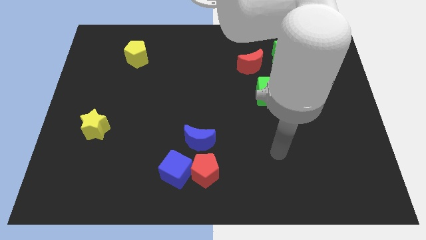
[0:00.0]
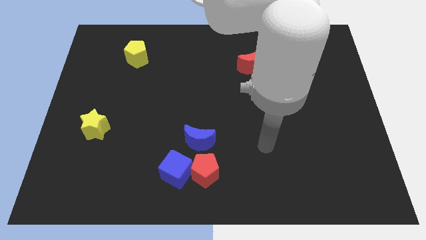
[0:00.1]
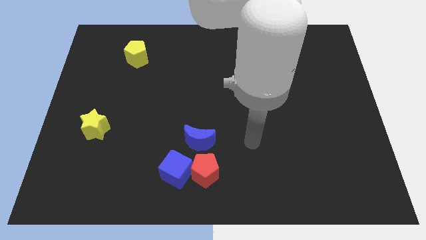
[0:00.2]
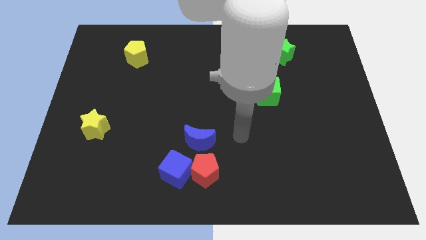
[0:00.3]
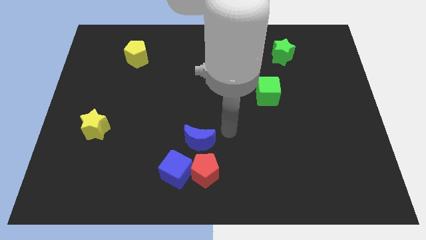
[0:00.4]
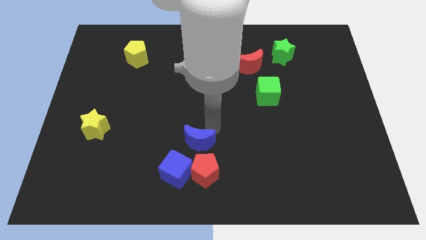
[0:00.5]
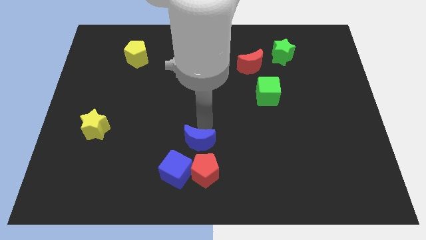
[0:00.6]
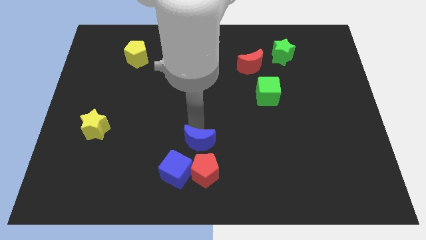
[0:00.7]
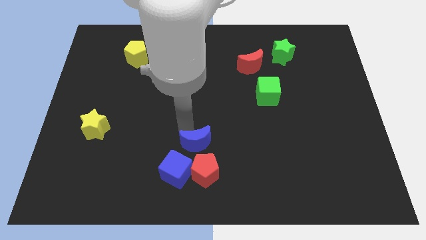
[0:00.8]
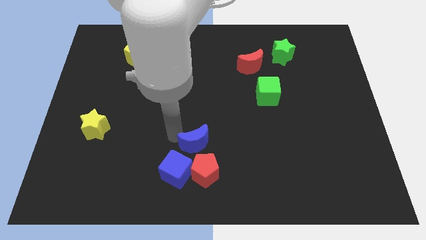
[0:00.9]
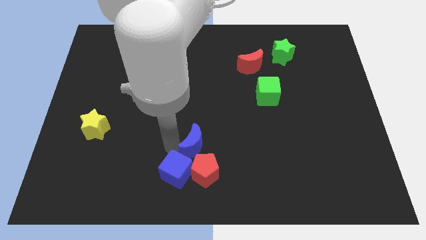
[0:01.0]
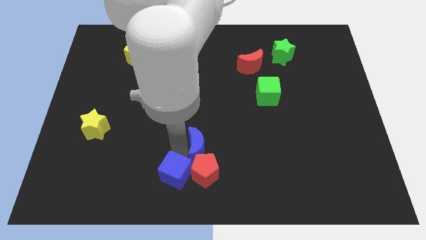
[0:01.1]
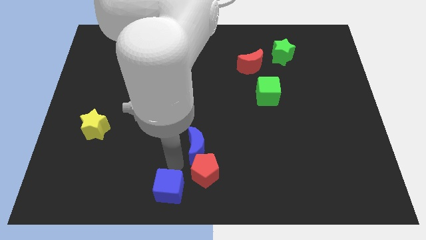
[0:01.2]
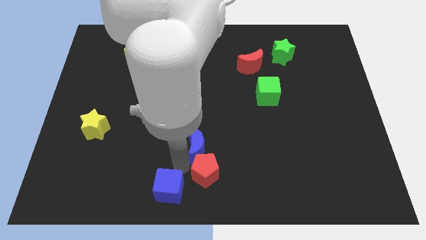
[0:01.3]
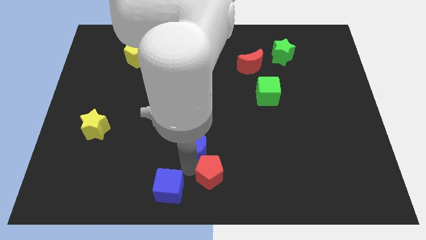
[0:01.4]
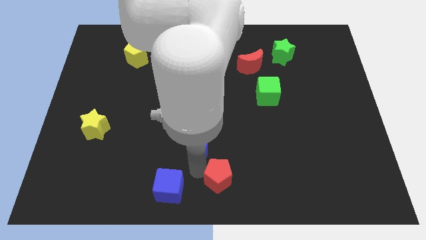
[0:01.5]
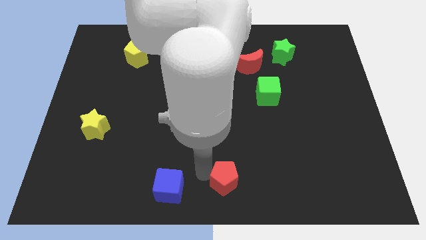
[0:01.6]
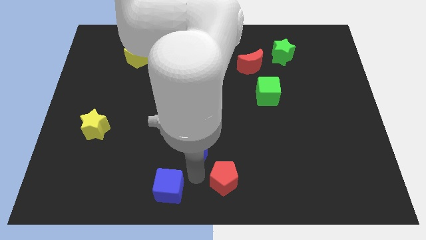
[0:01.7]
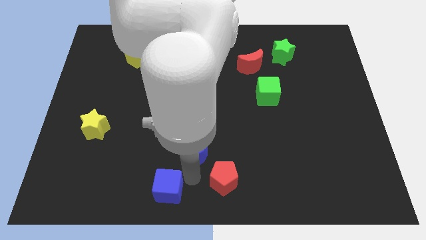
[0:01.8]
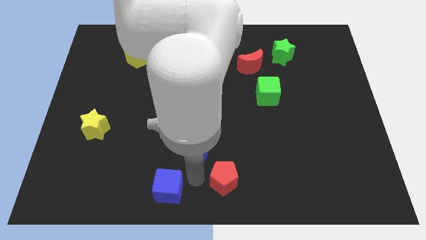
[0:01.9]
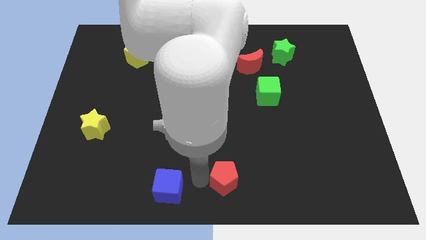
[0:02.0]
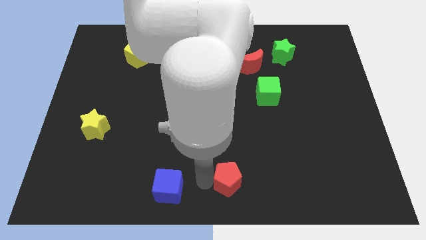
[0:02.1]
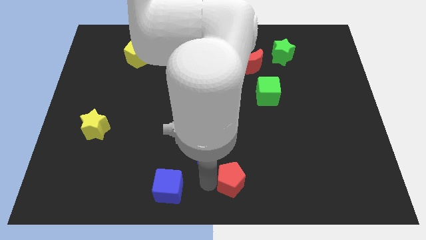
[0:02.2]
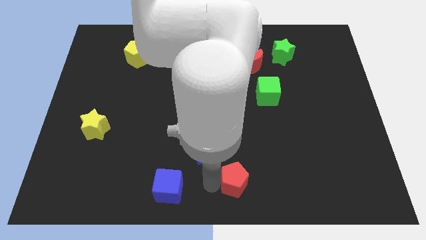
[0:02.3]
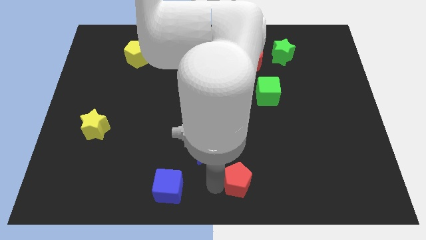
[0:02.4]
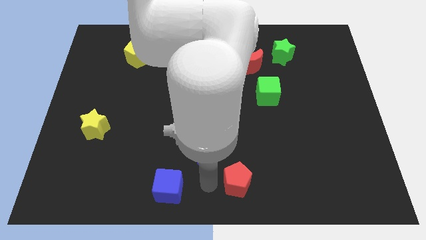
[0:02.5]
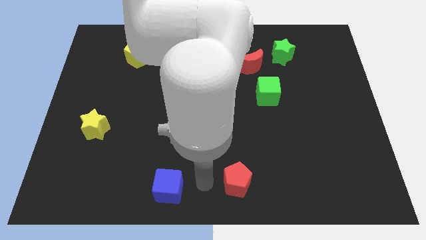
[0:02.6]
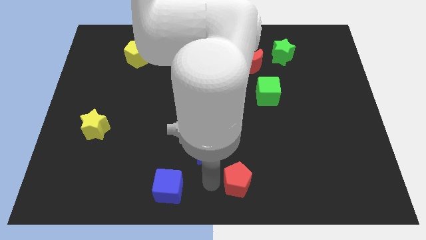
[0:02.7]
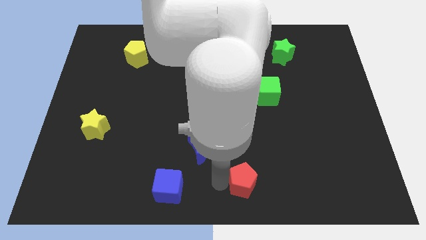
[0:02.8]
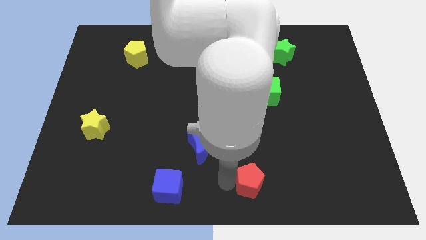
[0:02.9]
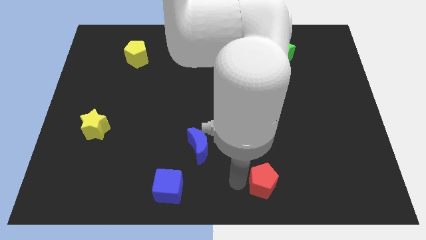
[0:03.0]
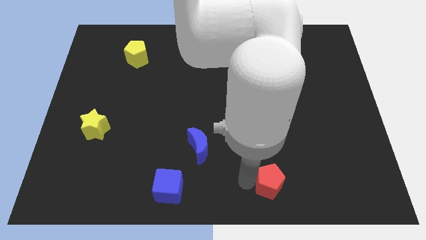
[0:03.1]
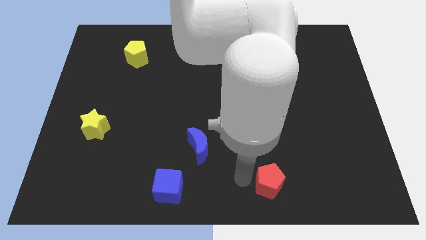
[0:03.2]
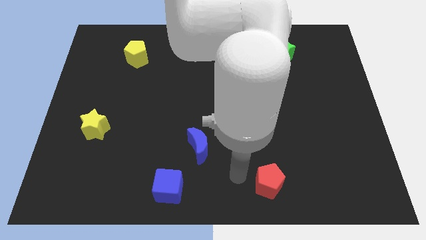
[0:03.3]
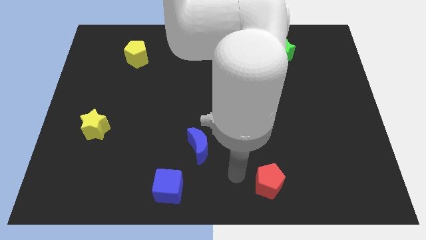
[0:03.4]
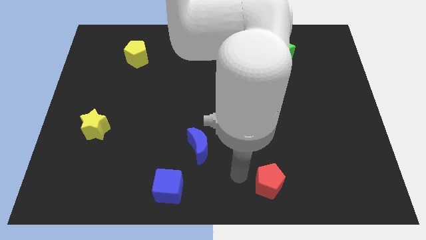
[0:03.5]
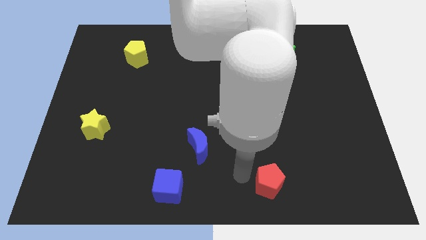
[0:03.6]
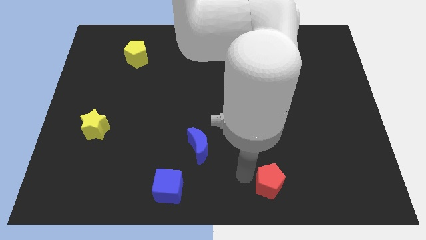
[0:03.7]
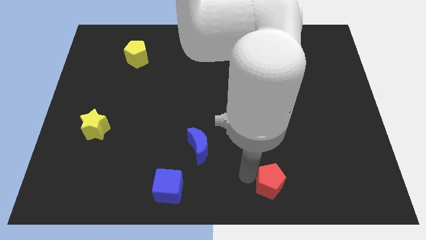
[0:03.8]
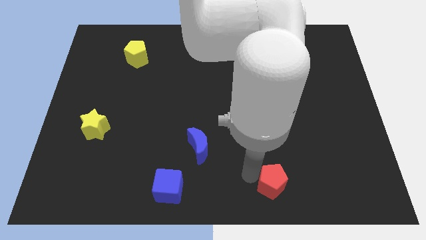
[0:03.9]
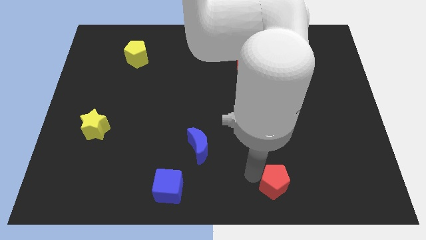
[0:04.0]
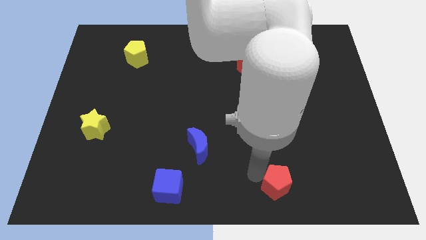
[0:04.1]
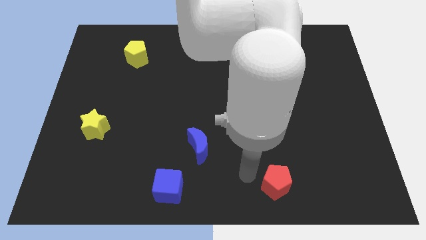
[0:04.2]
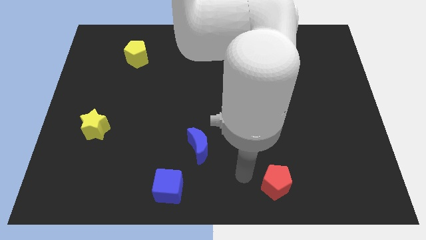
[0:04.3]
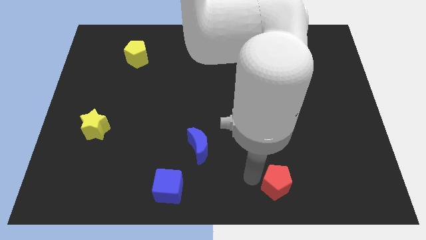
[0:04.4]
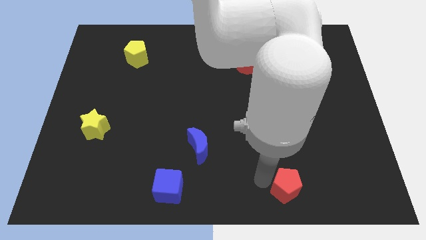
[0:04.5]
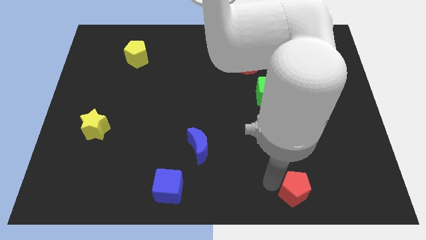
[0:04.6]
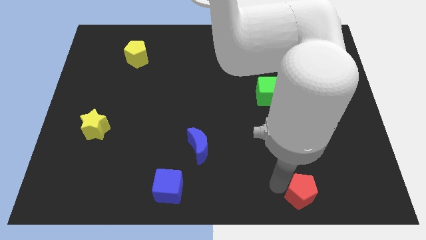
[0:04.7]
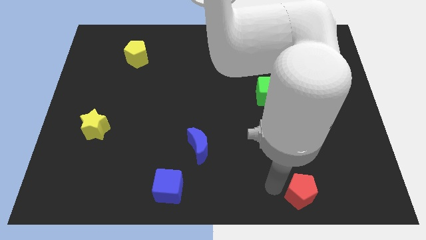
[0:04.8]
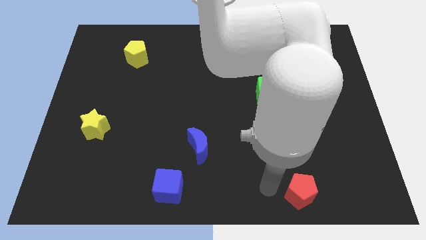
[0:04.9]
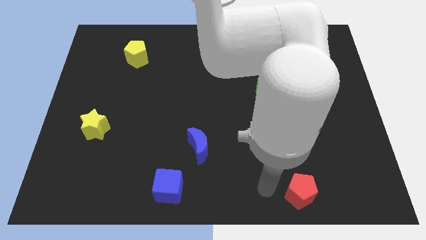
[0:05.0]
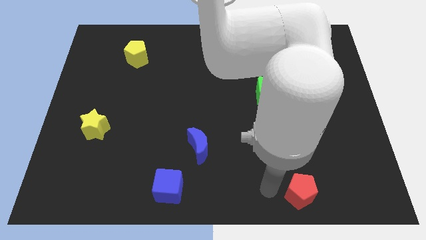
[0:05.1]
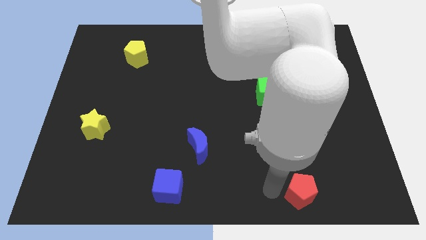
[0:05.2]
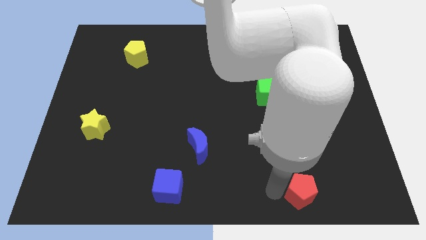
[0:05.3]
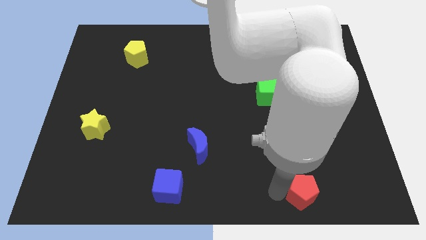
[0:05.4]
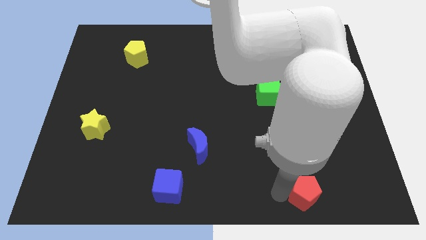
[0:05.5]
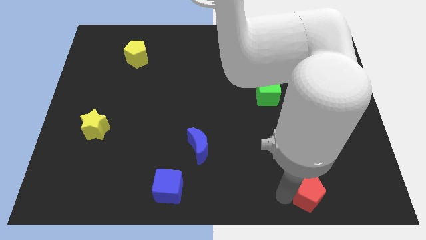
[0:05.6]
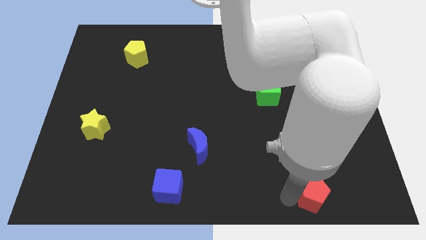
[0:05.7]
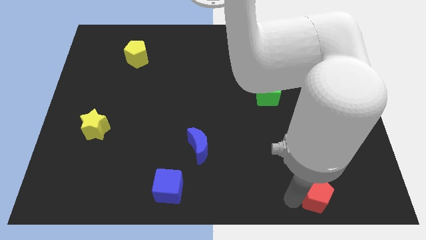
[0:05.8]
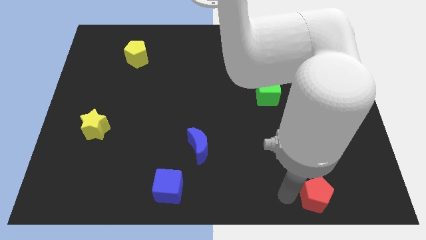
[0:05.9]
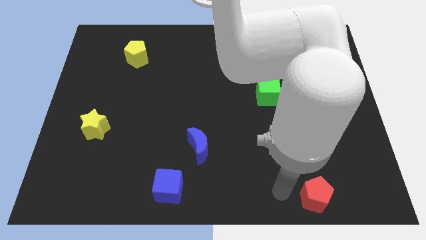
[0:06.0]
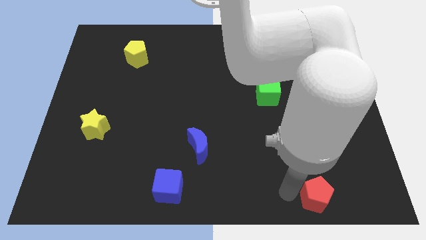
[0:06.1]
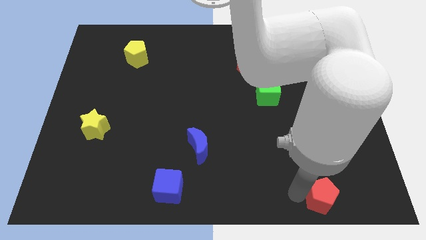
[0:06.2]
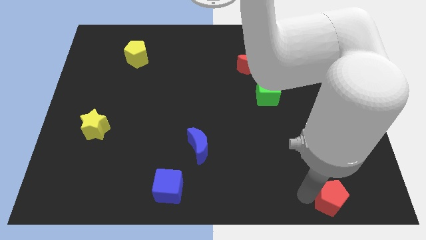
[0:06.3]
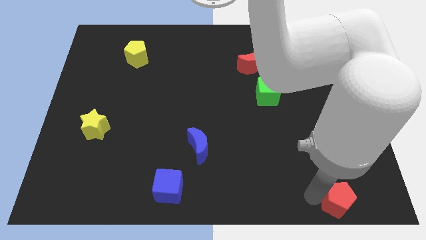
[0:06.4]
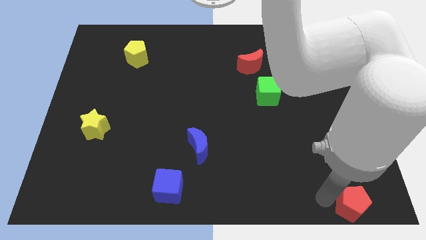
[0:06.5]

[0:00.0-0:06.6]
push the red pentagon to the bottom right
